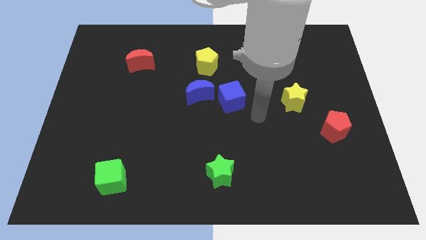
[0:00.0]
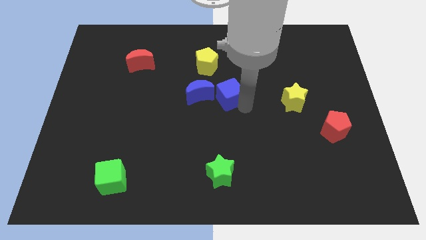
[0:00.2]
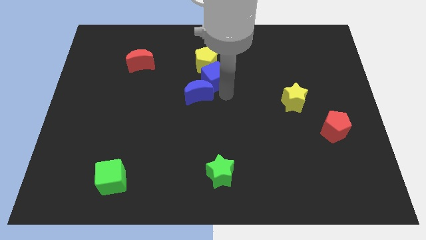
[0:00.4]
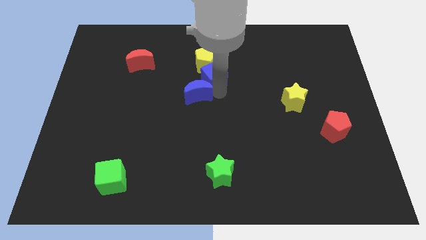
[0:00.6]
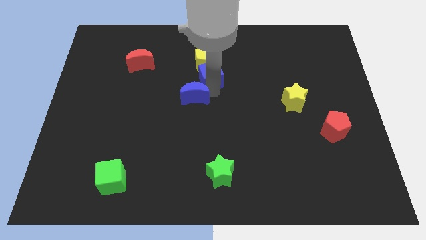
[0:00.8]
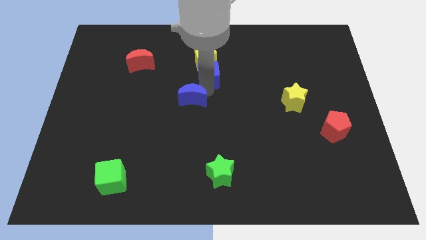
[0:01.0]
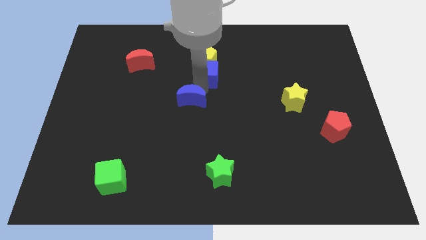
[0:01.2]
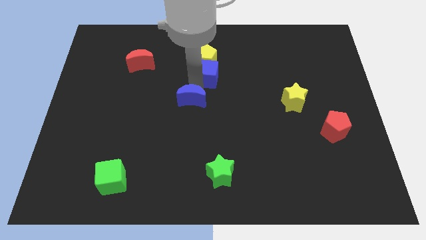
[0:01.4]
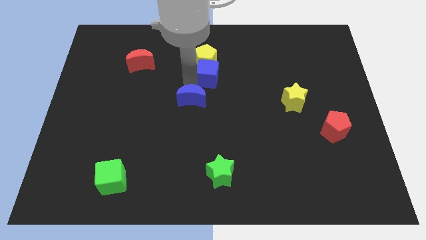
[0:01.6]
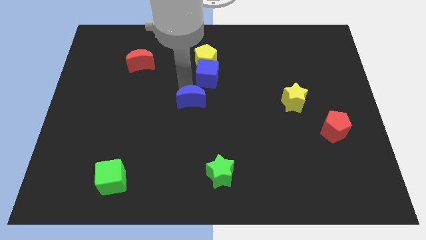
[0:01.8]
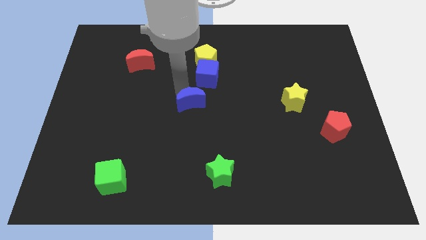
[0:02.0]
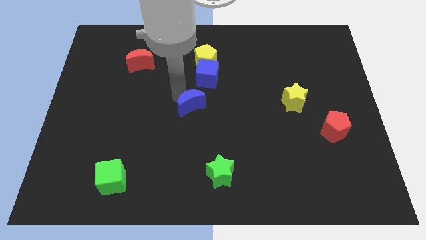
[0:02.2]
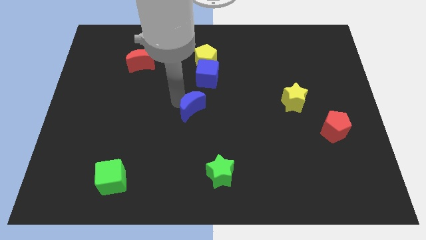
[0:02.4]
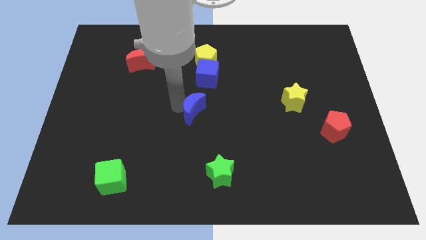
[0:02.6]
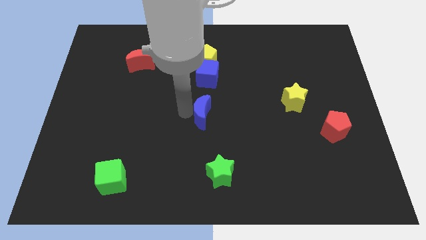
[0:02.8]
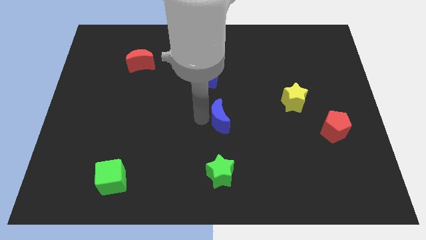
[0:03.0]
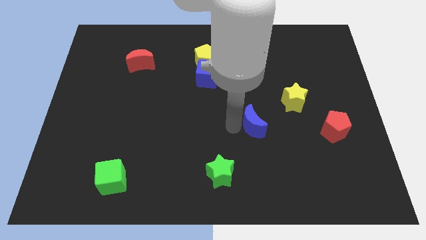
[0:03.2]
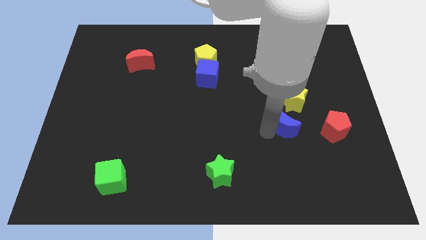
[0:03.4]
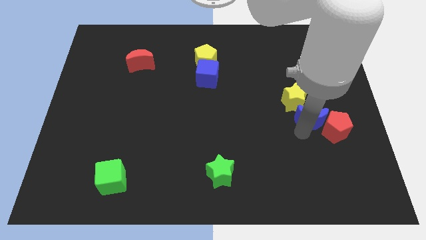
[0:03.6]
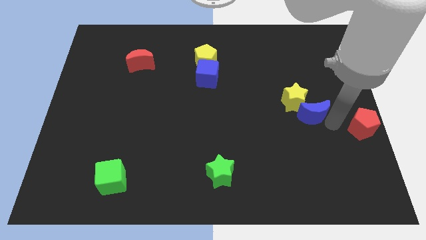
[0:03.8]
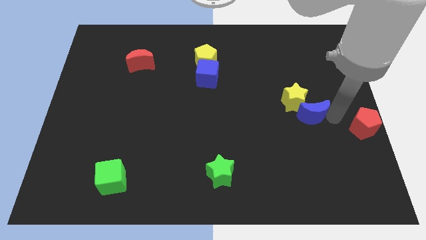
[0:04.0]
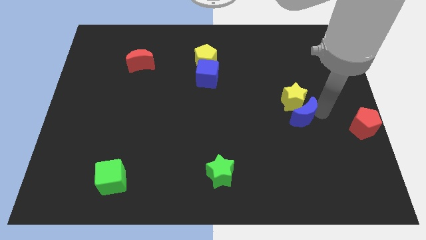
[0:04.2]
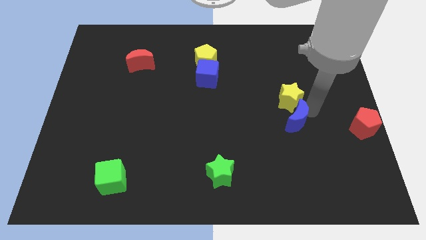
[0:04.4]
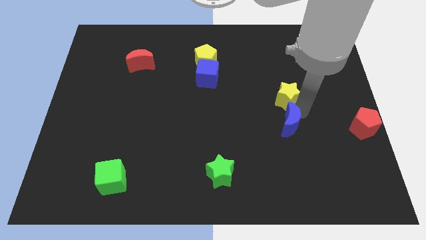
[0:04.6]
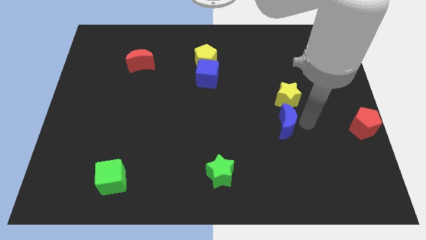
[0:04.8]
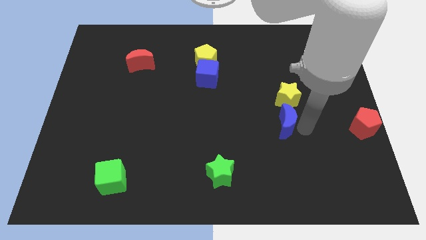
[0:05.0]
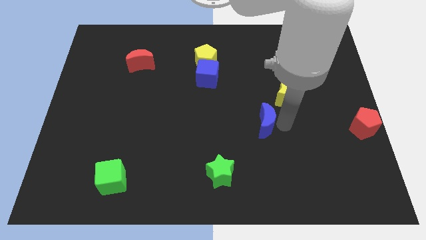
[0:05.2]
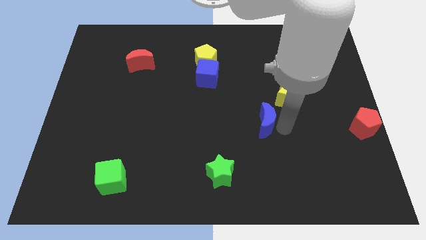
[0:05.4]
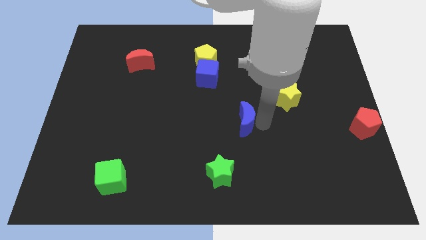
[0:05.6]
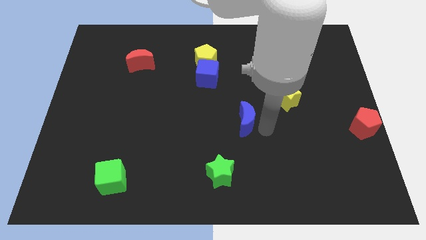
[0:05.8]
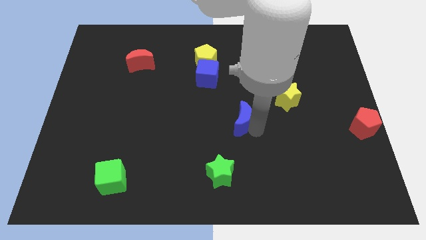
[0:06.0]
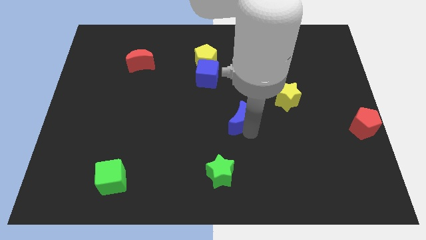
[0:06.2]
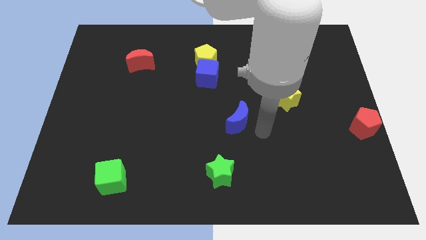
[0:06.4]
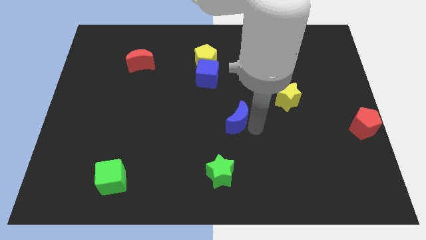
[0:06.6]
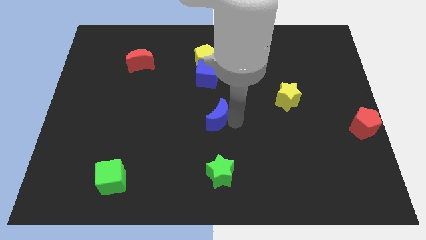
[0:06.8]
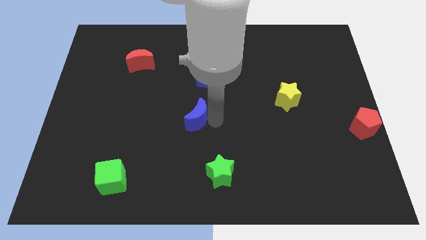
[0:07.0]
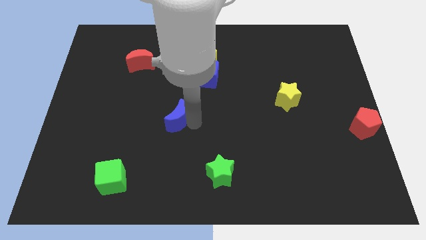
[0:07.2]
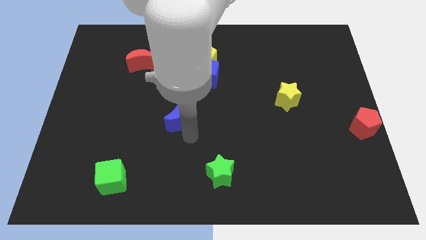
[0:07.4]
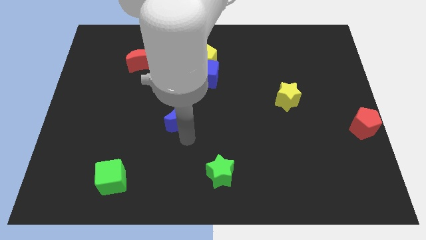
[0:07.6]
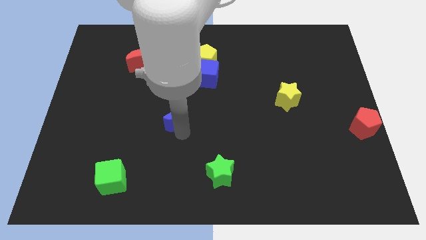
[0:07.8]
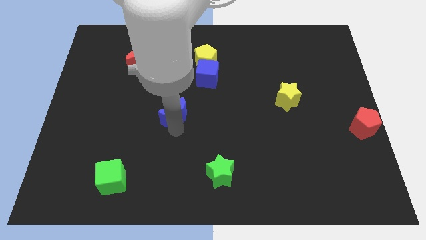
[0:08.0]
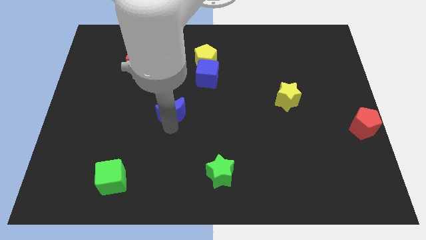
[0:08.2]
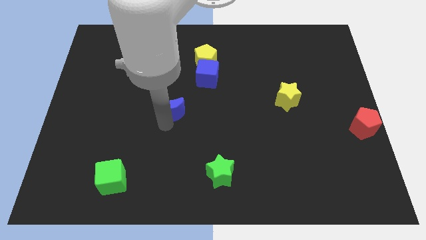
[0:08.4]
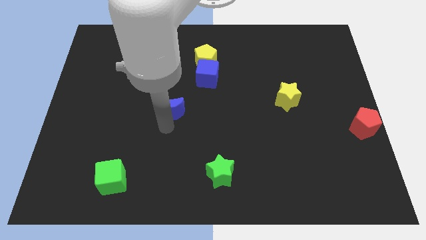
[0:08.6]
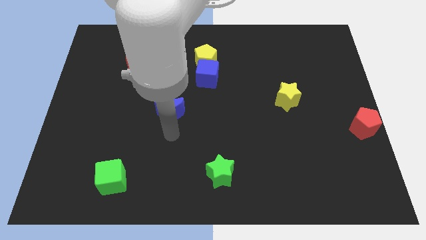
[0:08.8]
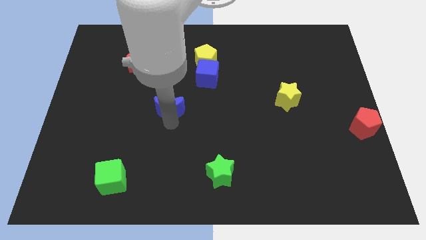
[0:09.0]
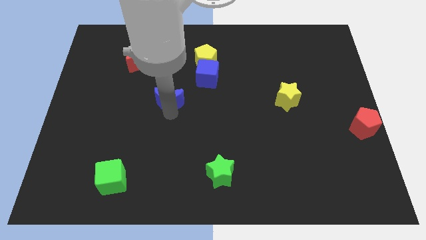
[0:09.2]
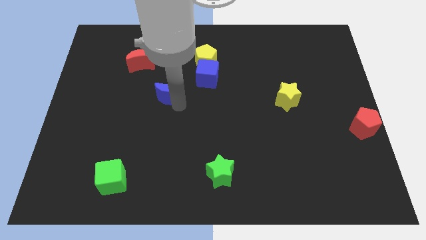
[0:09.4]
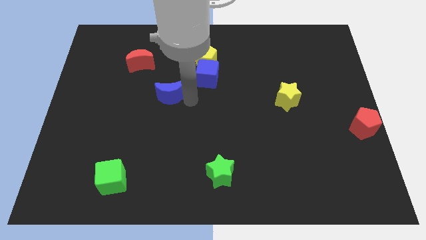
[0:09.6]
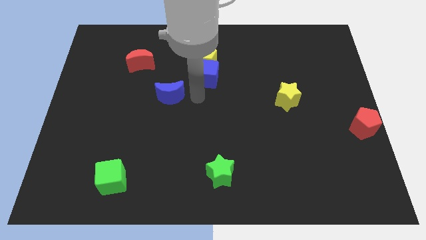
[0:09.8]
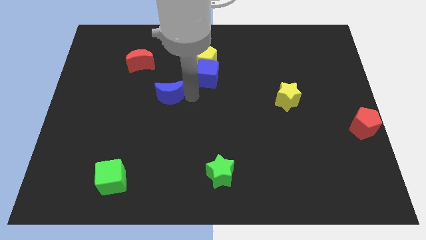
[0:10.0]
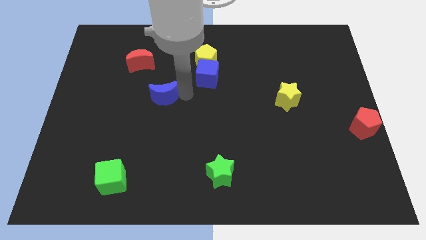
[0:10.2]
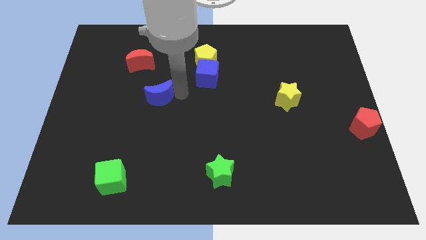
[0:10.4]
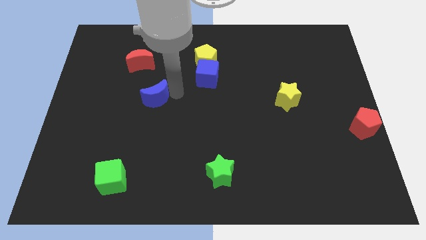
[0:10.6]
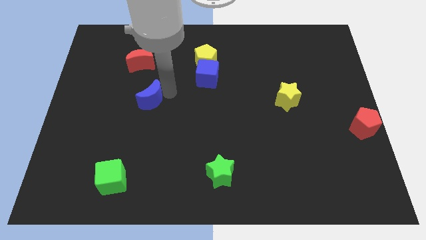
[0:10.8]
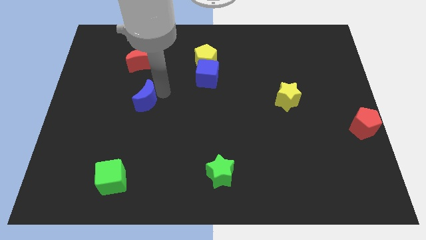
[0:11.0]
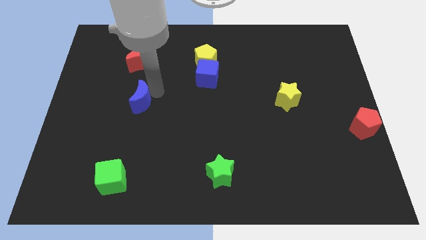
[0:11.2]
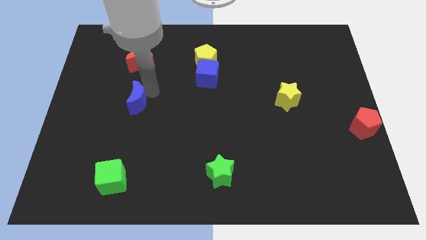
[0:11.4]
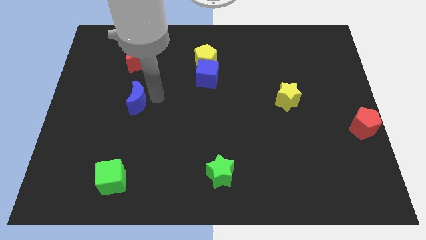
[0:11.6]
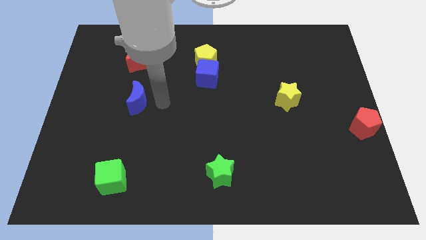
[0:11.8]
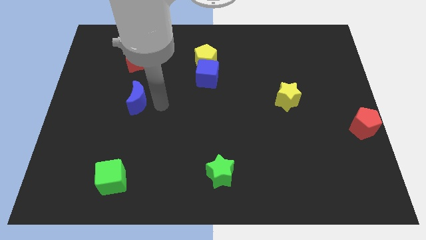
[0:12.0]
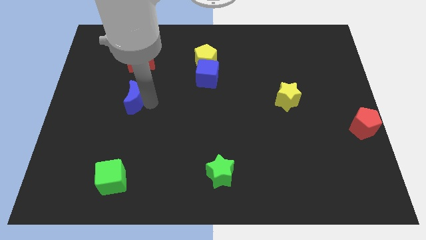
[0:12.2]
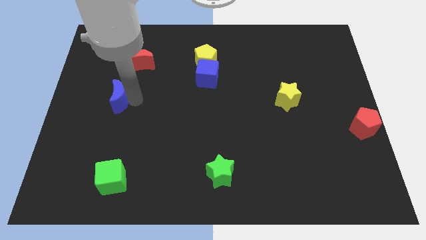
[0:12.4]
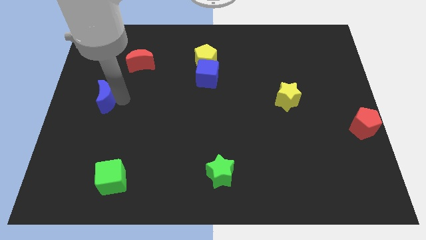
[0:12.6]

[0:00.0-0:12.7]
slide the blue moon to the left side of the board

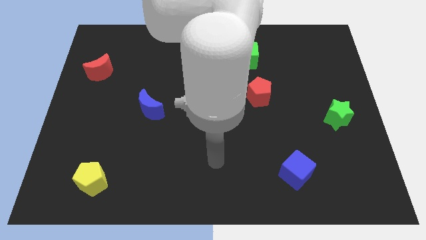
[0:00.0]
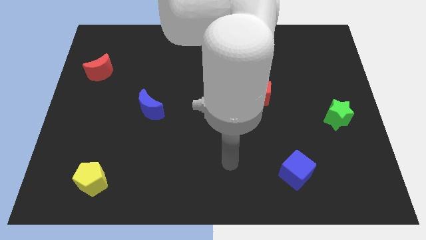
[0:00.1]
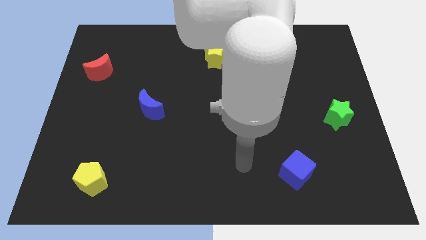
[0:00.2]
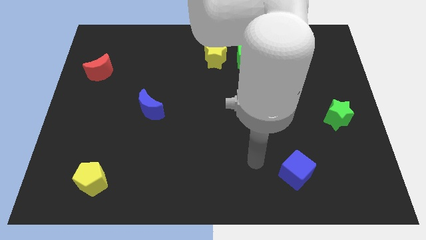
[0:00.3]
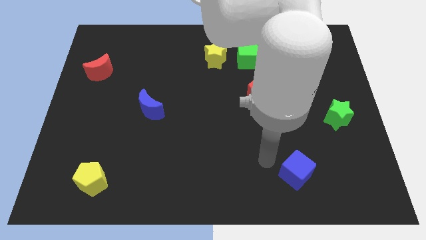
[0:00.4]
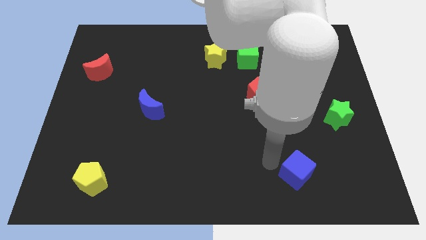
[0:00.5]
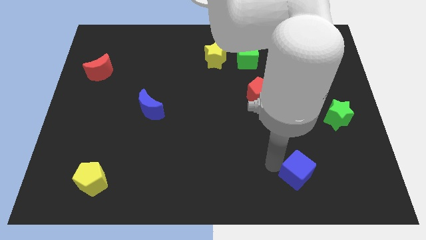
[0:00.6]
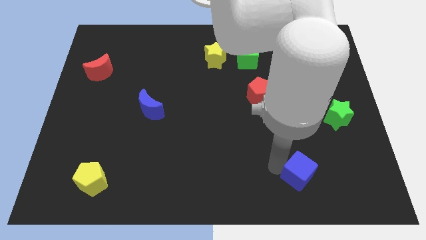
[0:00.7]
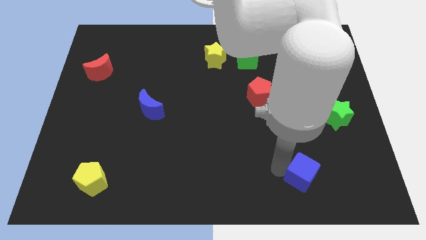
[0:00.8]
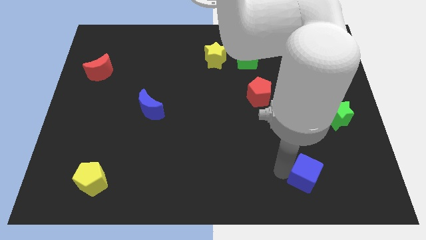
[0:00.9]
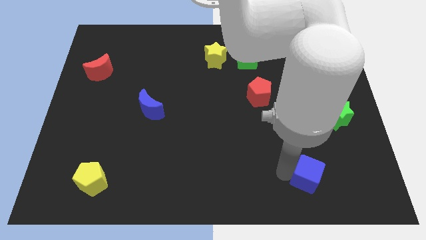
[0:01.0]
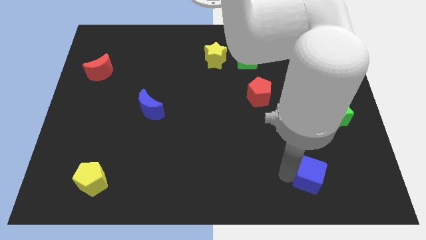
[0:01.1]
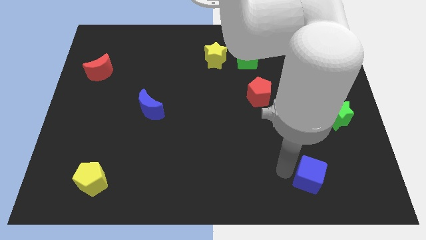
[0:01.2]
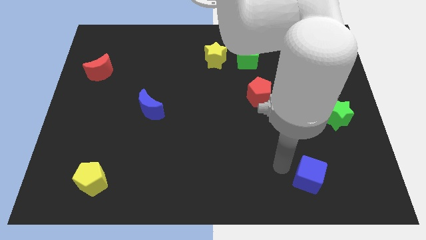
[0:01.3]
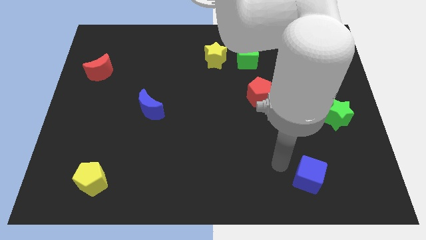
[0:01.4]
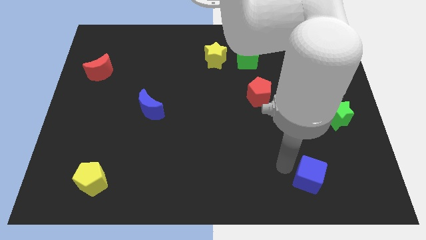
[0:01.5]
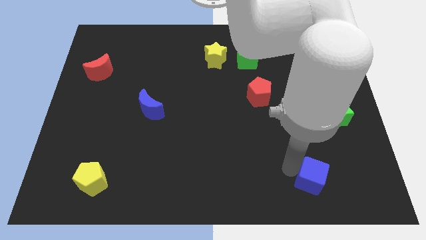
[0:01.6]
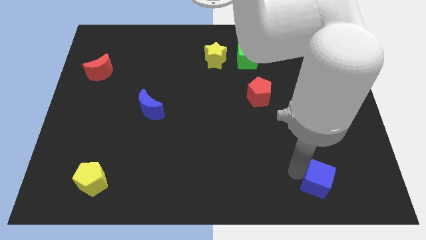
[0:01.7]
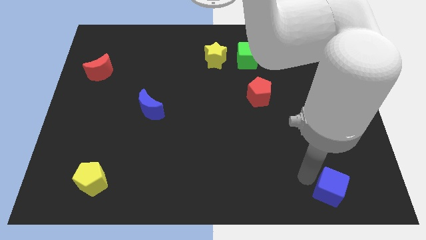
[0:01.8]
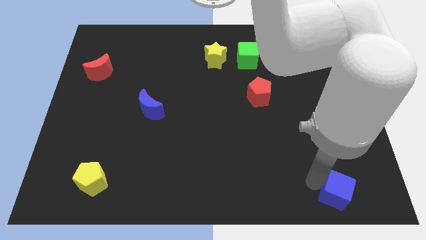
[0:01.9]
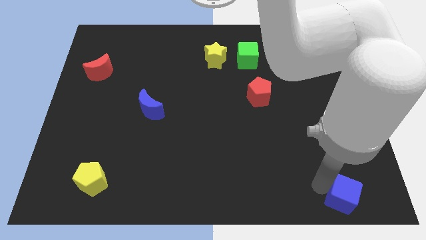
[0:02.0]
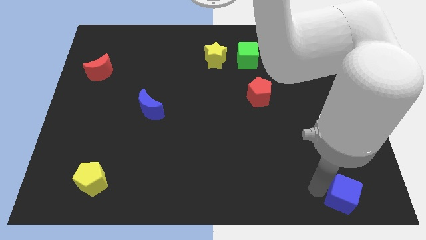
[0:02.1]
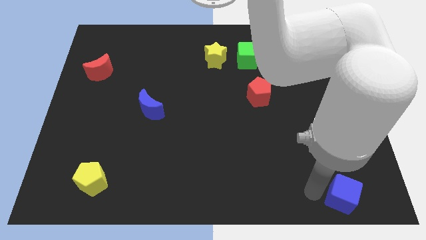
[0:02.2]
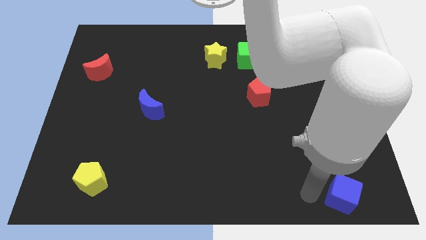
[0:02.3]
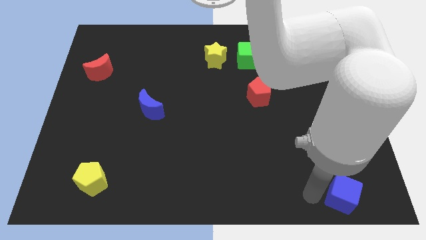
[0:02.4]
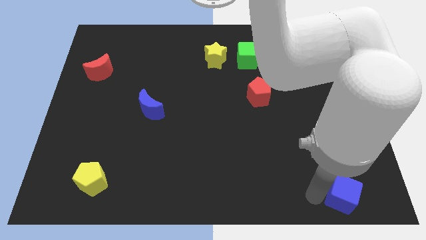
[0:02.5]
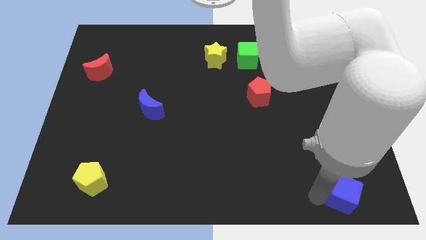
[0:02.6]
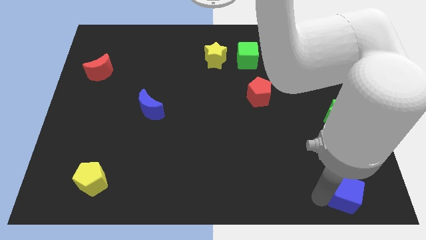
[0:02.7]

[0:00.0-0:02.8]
push the blue cube to the bottom right of the board
